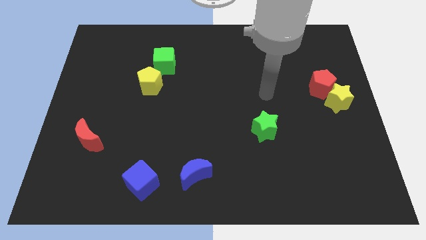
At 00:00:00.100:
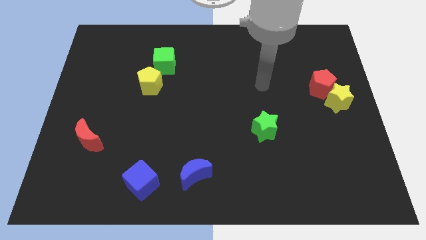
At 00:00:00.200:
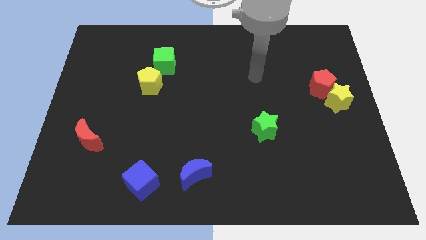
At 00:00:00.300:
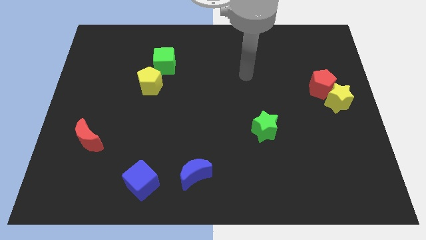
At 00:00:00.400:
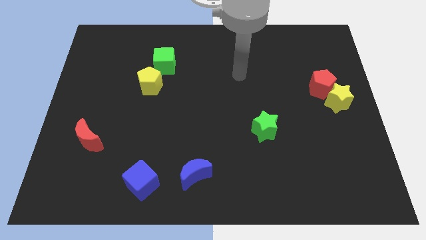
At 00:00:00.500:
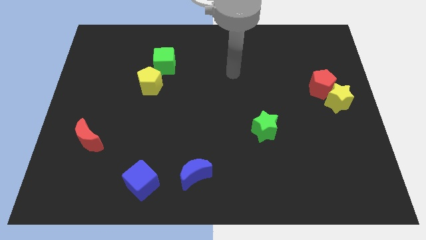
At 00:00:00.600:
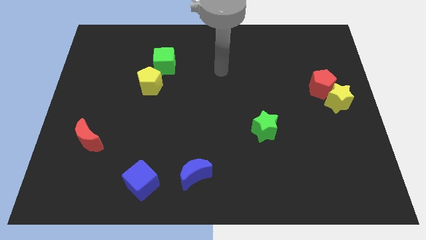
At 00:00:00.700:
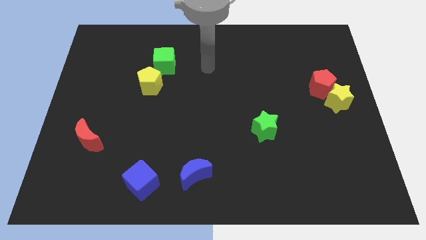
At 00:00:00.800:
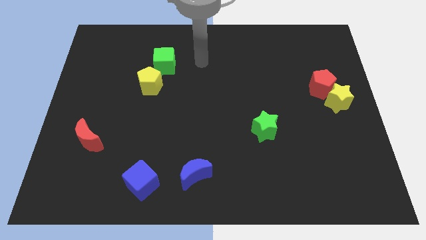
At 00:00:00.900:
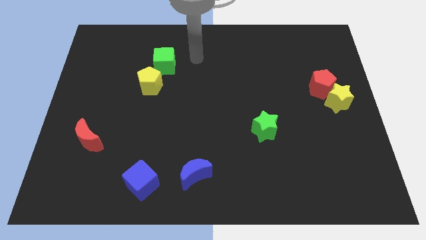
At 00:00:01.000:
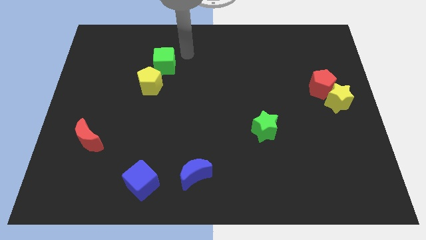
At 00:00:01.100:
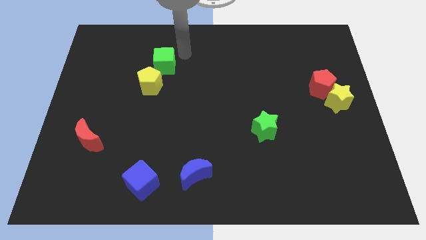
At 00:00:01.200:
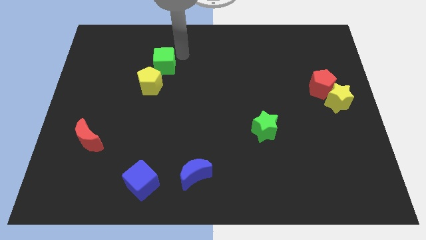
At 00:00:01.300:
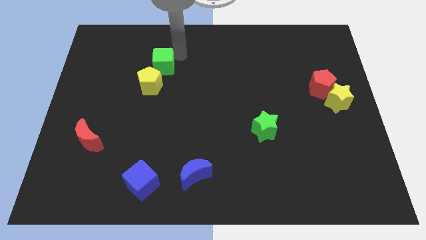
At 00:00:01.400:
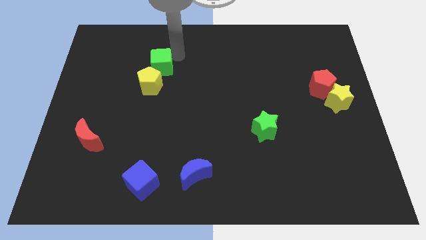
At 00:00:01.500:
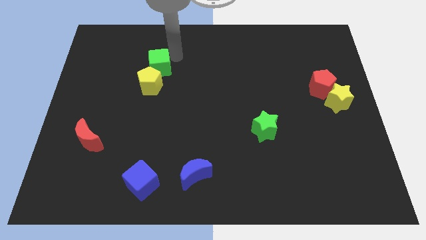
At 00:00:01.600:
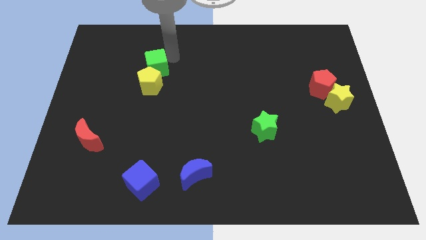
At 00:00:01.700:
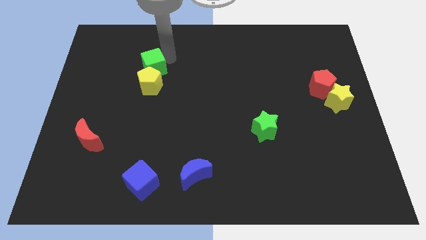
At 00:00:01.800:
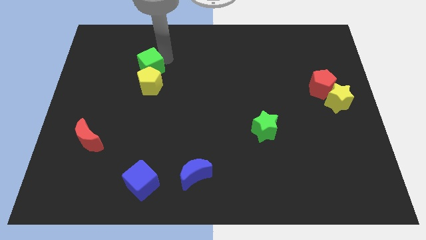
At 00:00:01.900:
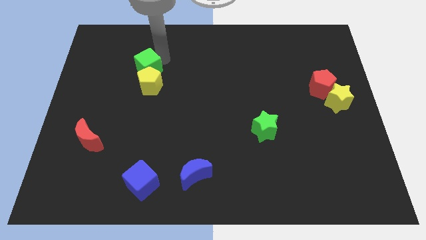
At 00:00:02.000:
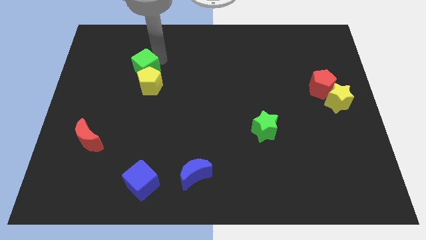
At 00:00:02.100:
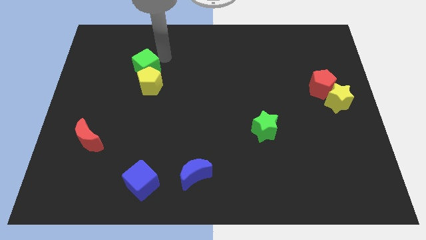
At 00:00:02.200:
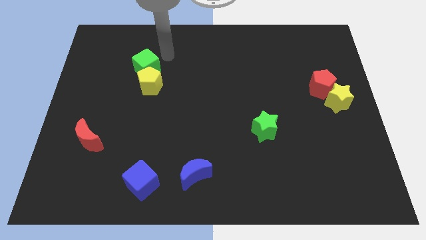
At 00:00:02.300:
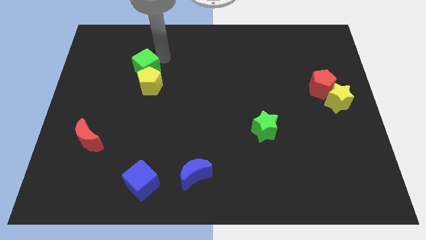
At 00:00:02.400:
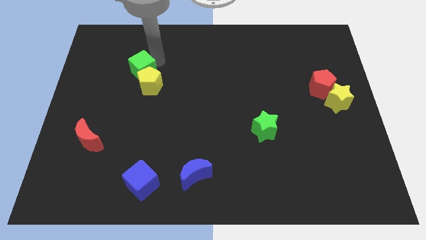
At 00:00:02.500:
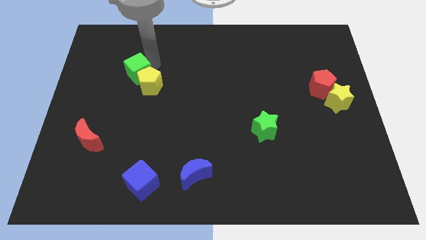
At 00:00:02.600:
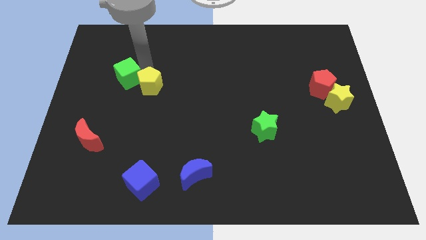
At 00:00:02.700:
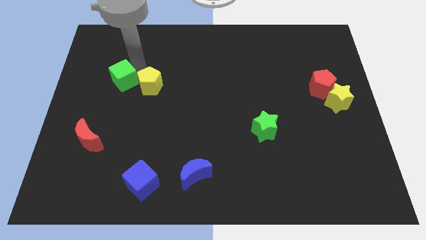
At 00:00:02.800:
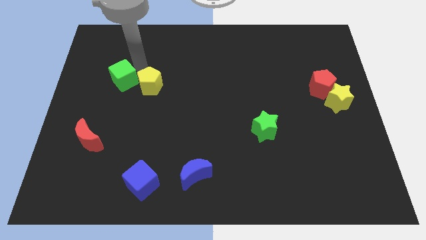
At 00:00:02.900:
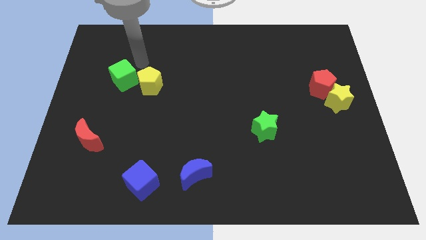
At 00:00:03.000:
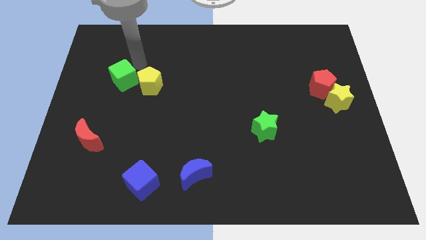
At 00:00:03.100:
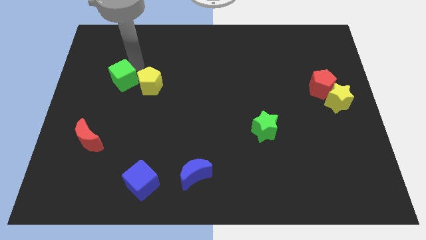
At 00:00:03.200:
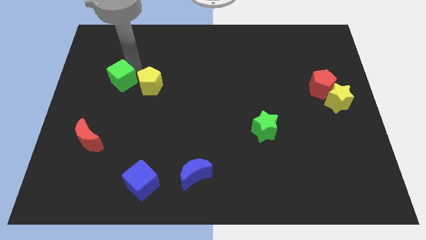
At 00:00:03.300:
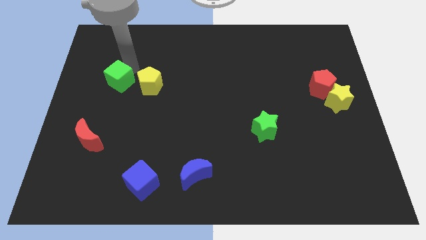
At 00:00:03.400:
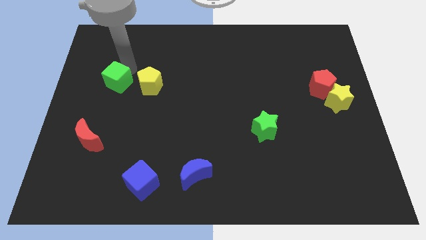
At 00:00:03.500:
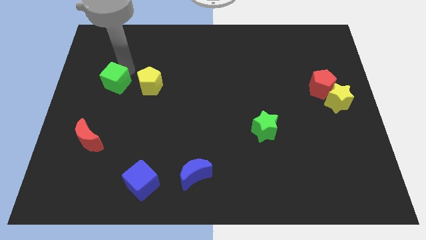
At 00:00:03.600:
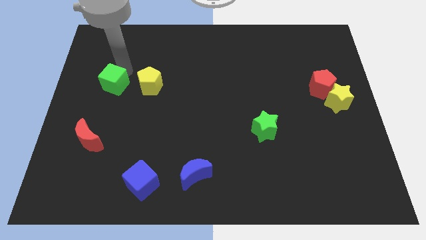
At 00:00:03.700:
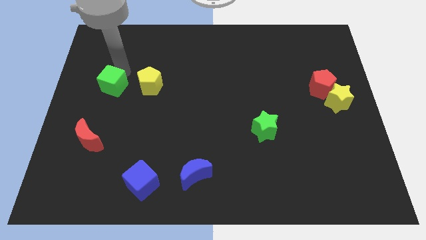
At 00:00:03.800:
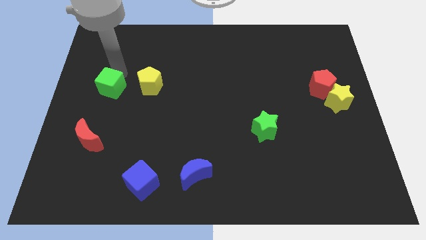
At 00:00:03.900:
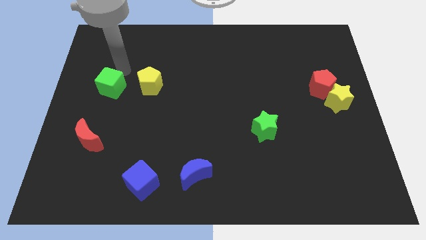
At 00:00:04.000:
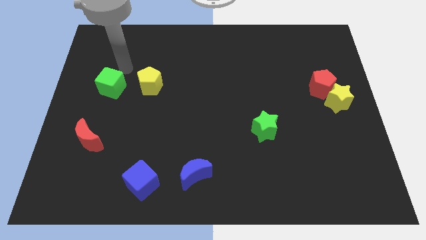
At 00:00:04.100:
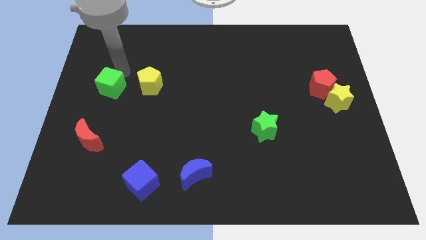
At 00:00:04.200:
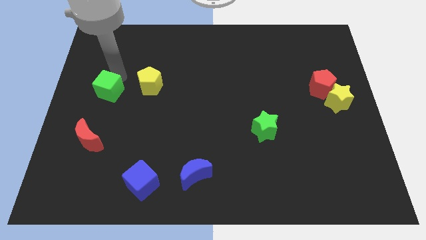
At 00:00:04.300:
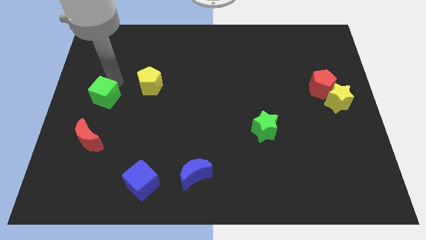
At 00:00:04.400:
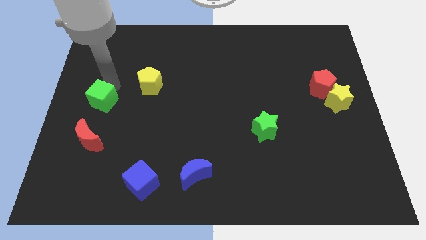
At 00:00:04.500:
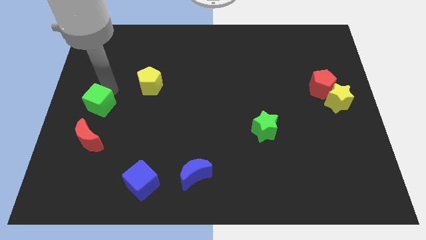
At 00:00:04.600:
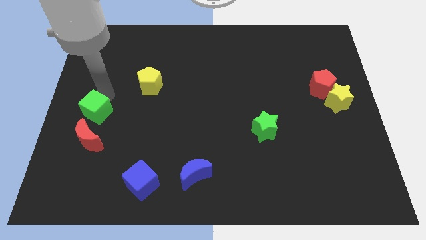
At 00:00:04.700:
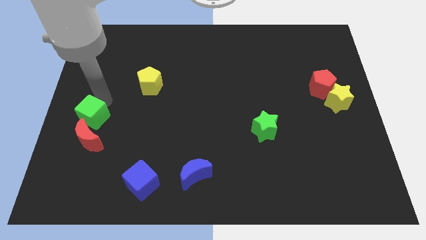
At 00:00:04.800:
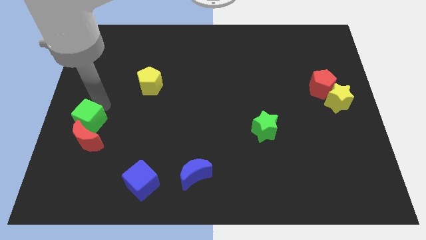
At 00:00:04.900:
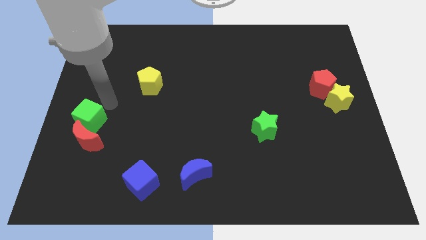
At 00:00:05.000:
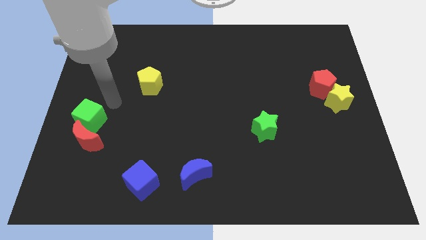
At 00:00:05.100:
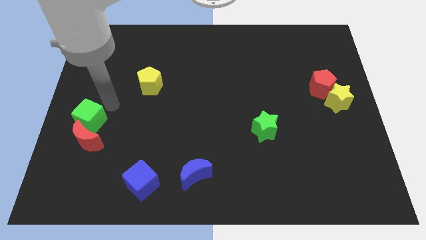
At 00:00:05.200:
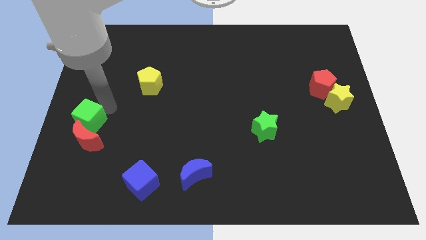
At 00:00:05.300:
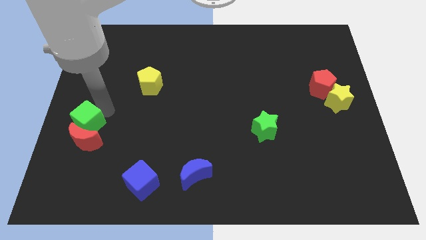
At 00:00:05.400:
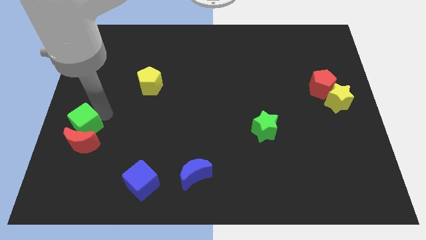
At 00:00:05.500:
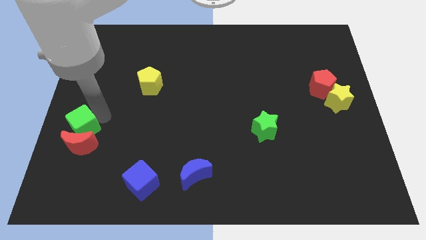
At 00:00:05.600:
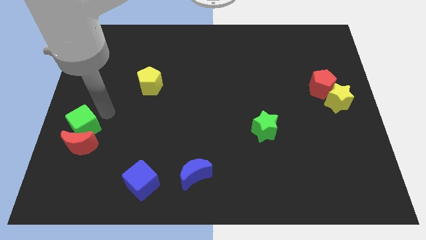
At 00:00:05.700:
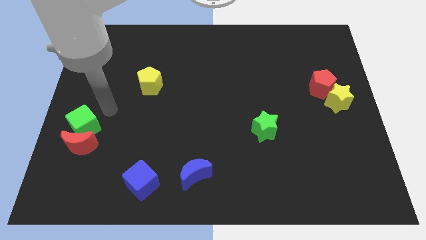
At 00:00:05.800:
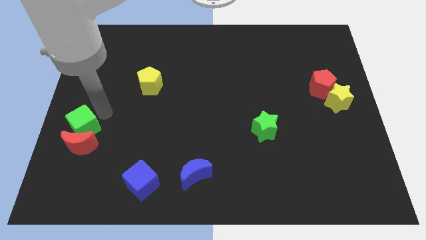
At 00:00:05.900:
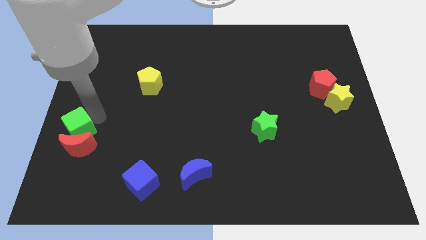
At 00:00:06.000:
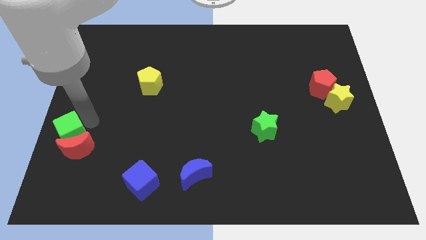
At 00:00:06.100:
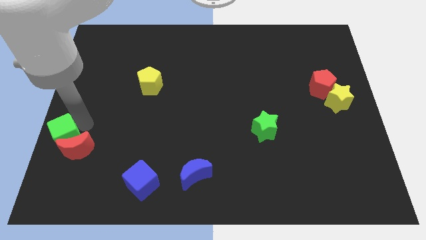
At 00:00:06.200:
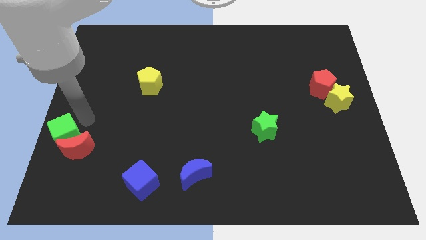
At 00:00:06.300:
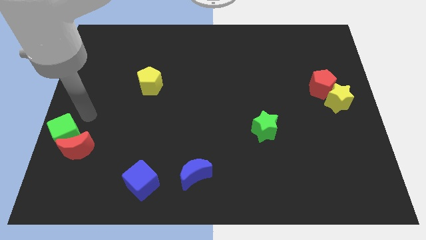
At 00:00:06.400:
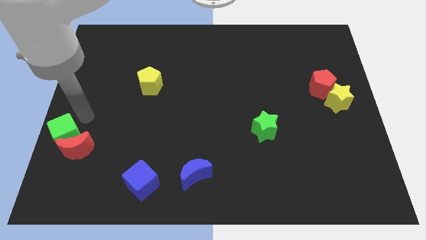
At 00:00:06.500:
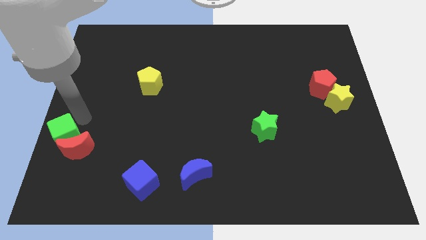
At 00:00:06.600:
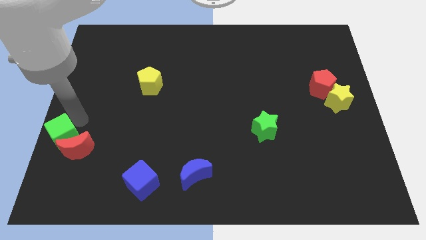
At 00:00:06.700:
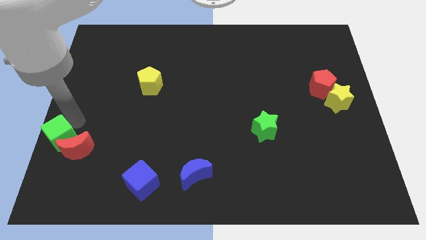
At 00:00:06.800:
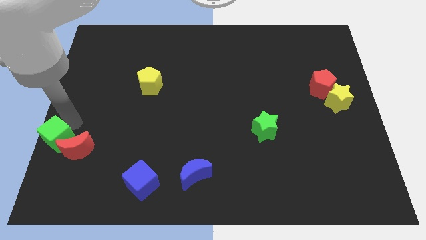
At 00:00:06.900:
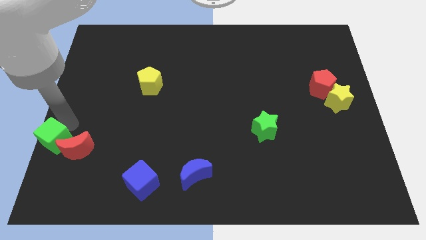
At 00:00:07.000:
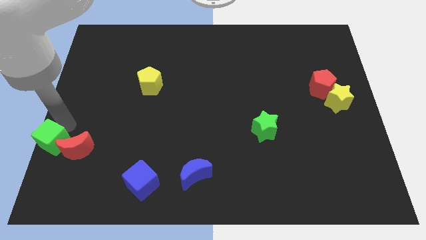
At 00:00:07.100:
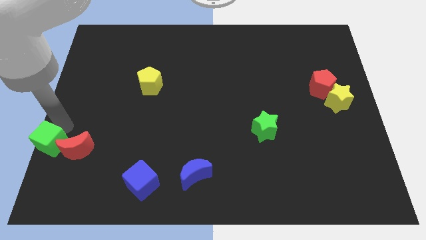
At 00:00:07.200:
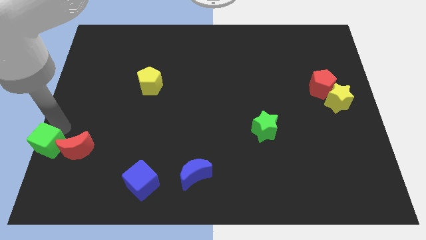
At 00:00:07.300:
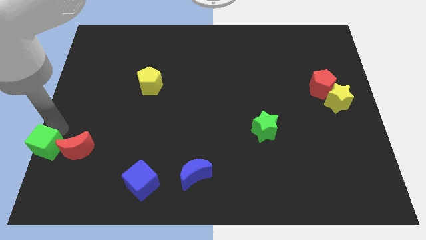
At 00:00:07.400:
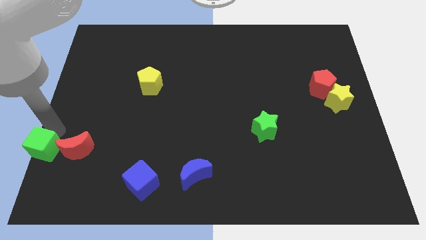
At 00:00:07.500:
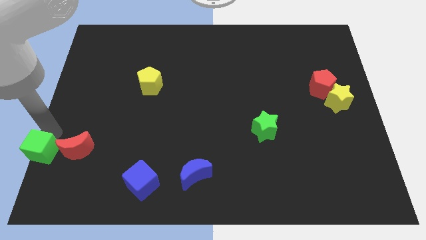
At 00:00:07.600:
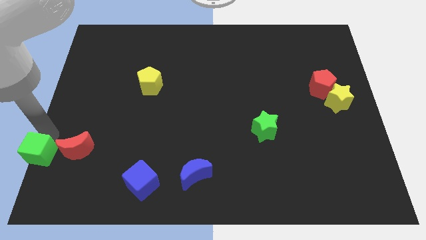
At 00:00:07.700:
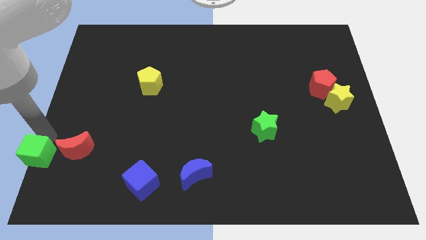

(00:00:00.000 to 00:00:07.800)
move the green cube to the bottom left of the board
